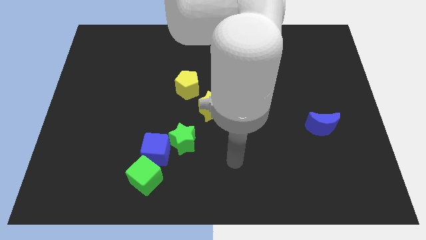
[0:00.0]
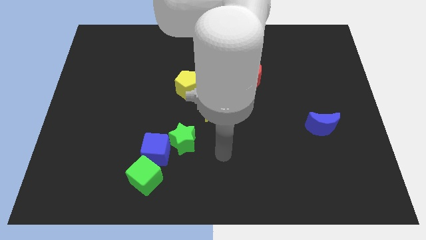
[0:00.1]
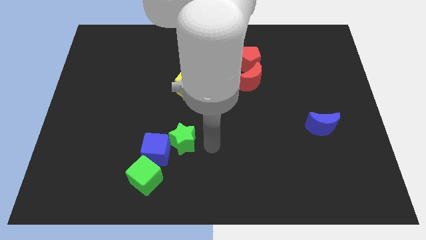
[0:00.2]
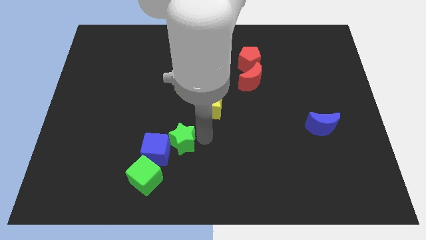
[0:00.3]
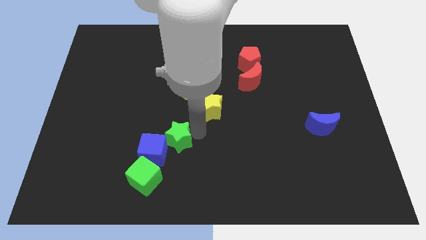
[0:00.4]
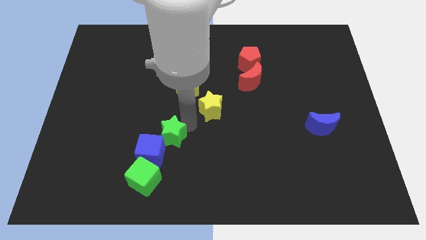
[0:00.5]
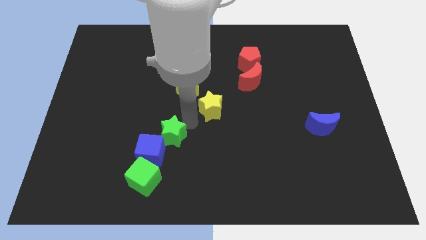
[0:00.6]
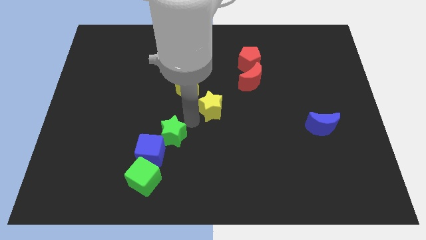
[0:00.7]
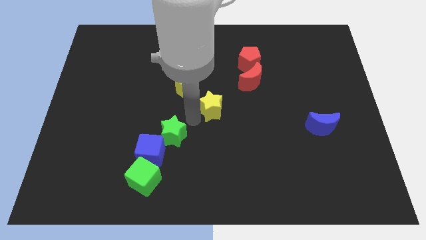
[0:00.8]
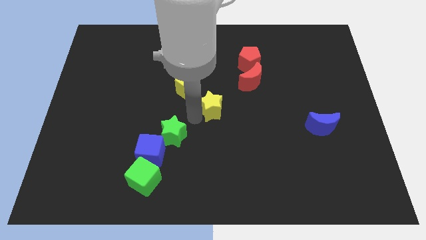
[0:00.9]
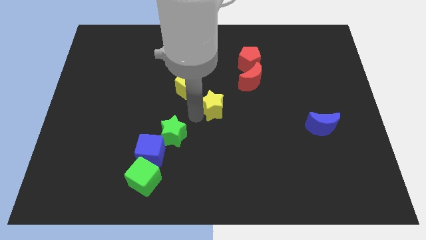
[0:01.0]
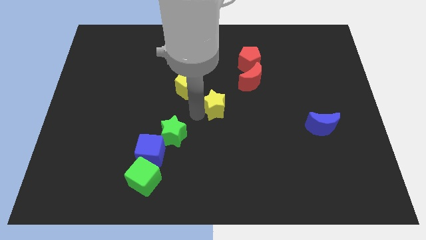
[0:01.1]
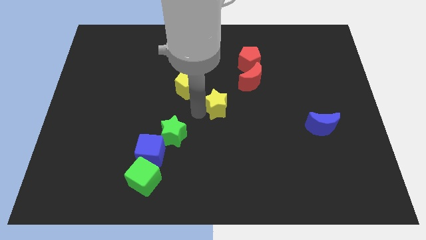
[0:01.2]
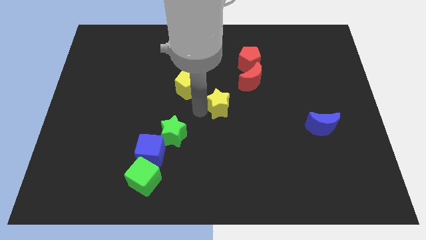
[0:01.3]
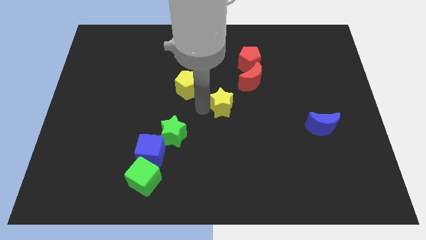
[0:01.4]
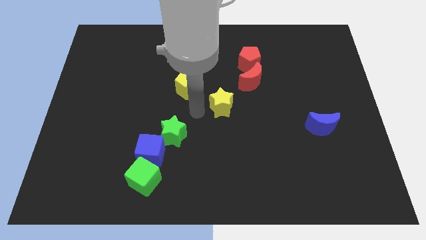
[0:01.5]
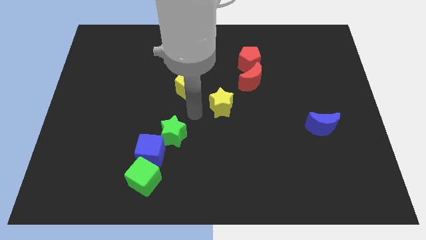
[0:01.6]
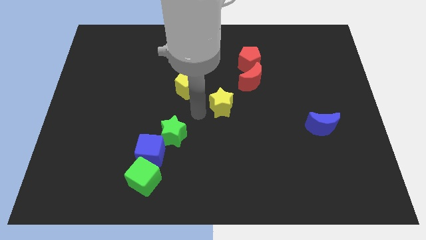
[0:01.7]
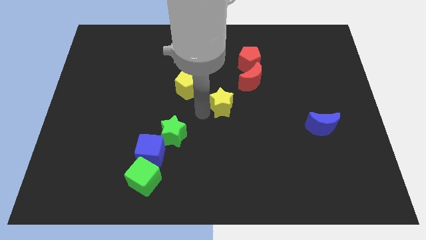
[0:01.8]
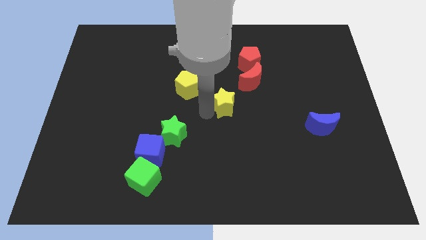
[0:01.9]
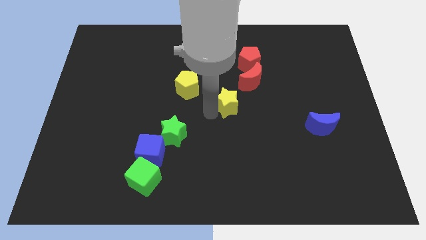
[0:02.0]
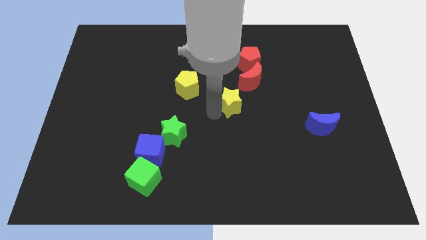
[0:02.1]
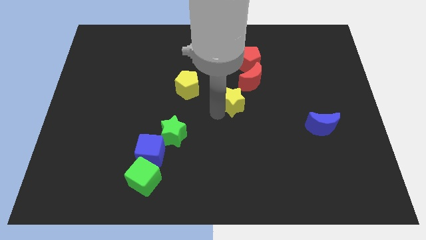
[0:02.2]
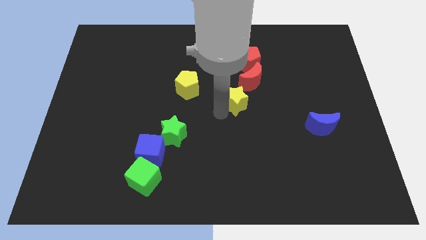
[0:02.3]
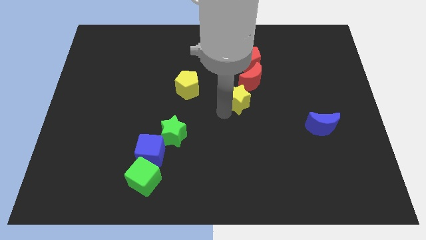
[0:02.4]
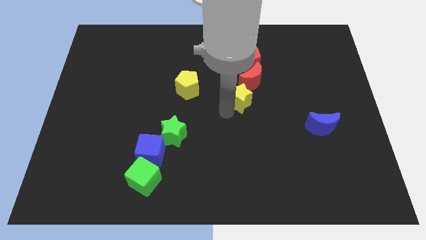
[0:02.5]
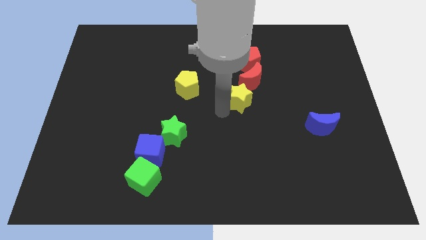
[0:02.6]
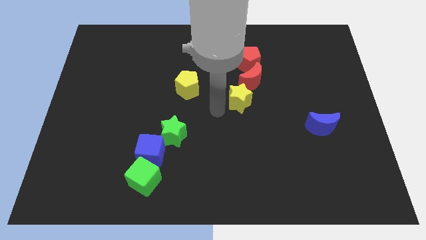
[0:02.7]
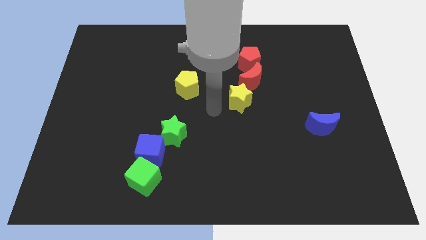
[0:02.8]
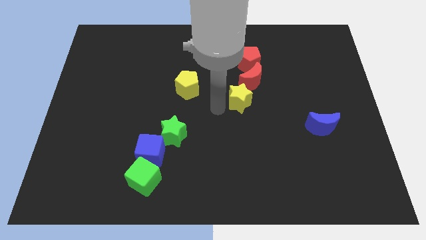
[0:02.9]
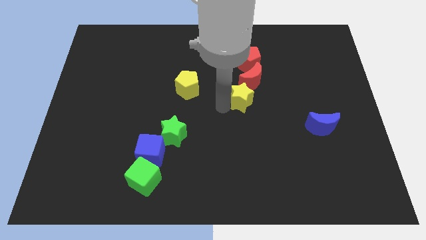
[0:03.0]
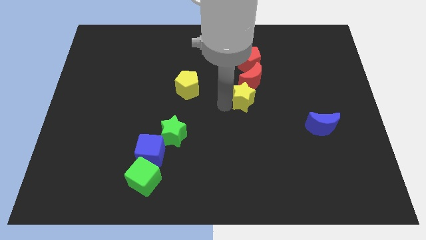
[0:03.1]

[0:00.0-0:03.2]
move the yellow star slightly diagonally upwards and right

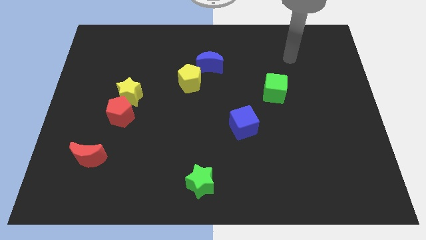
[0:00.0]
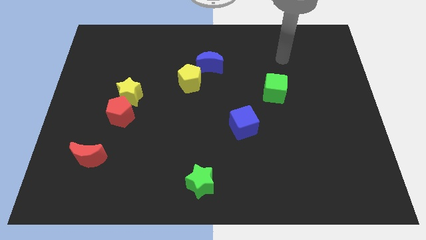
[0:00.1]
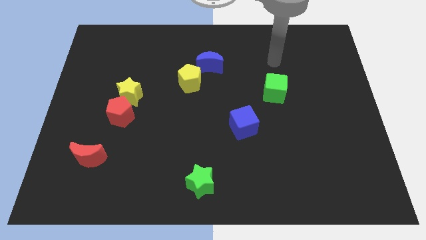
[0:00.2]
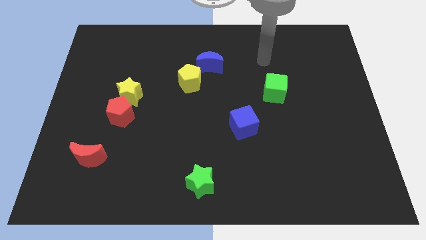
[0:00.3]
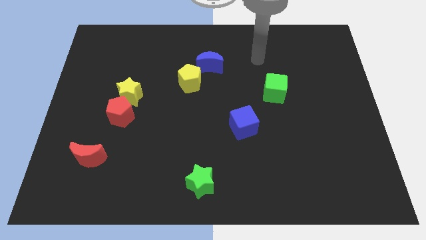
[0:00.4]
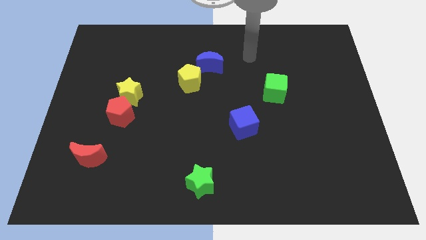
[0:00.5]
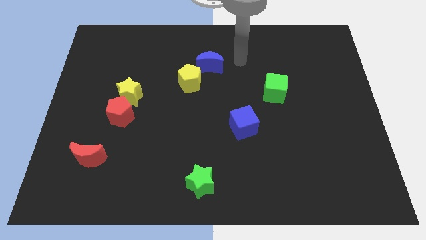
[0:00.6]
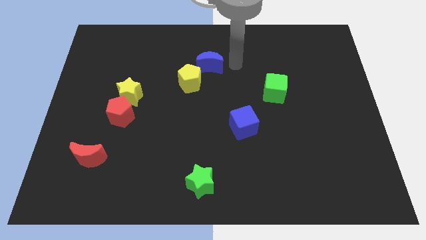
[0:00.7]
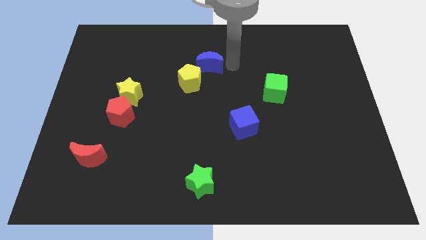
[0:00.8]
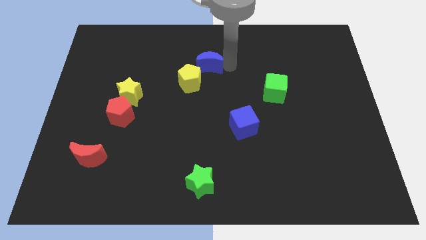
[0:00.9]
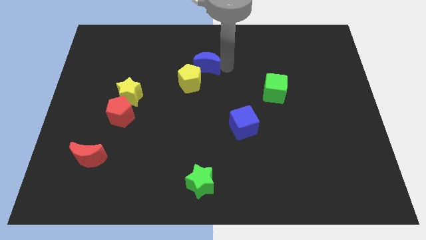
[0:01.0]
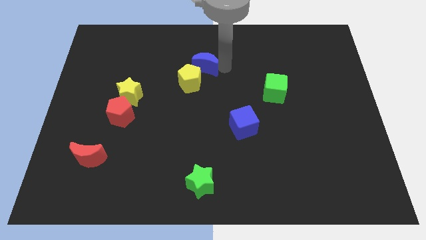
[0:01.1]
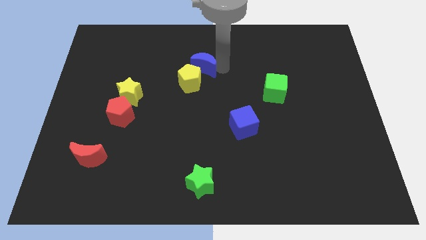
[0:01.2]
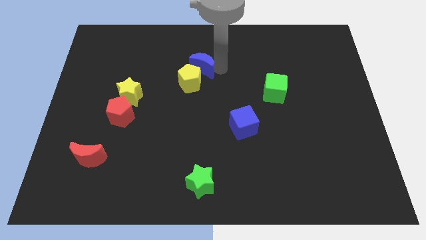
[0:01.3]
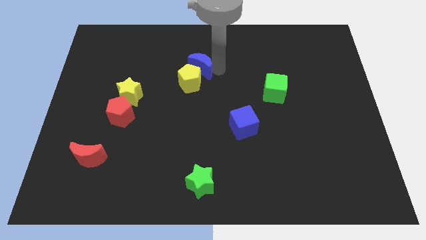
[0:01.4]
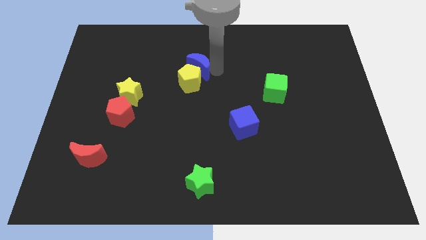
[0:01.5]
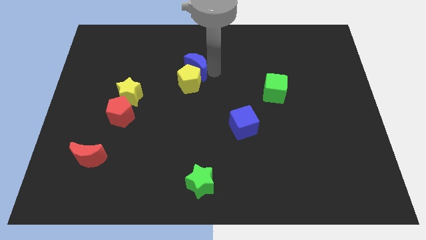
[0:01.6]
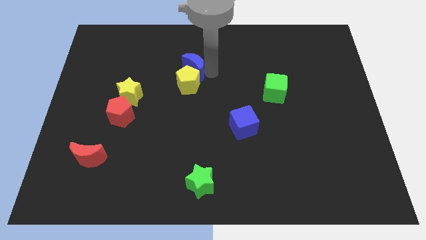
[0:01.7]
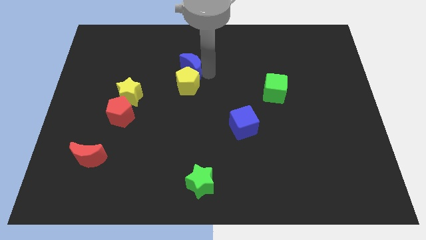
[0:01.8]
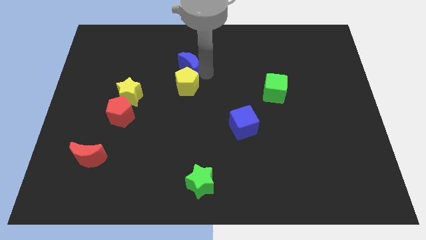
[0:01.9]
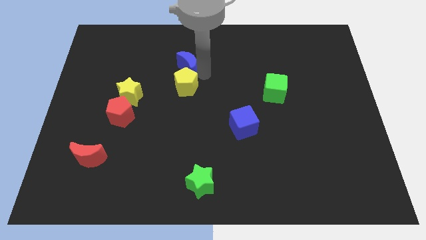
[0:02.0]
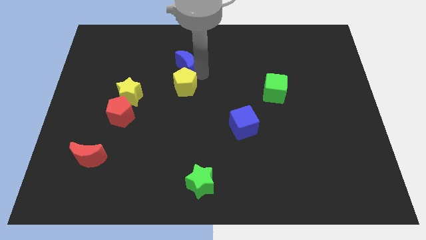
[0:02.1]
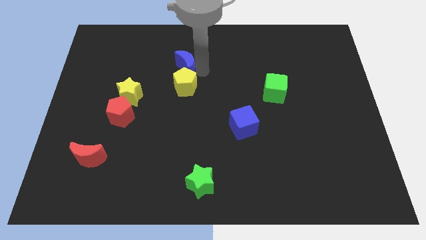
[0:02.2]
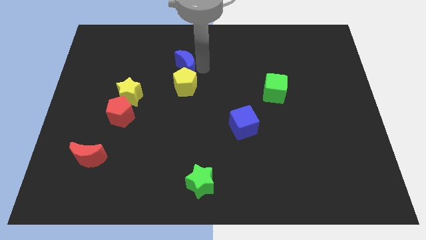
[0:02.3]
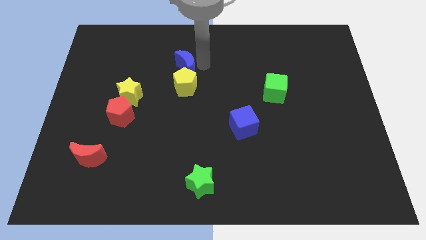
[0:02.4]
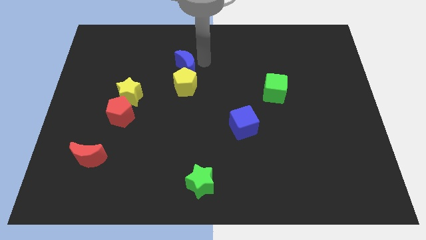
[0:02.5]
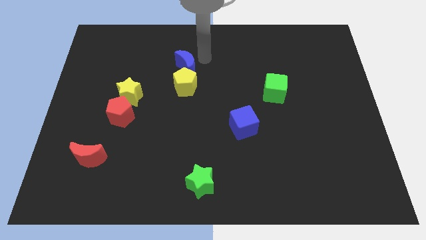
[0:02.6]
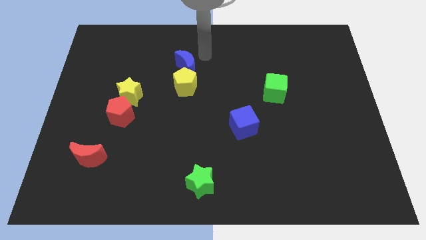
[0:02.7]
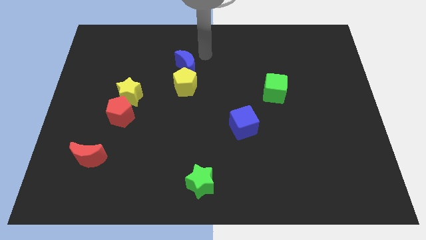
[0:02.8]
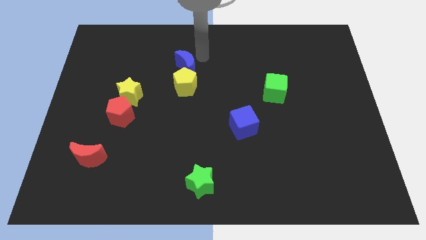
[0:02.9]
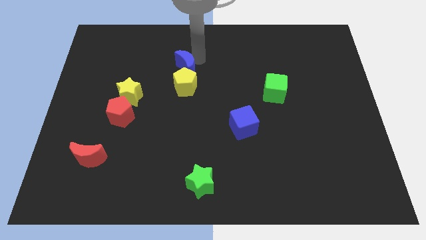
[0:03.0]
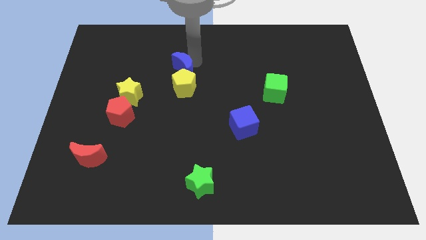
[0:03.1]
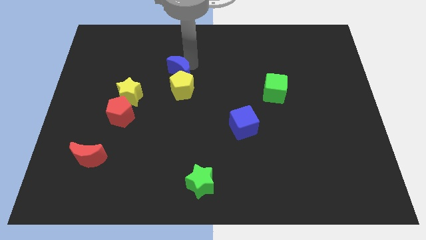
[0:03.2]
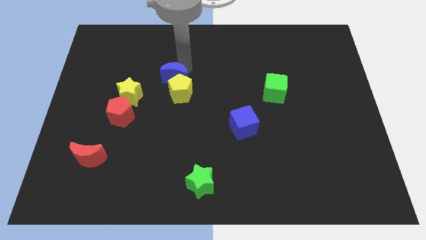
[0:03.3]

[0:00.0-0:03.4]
move the blue moon a little bit down and then left

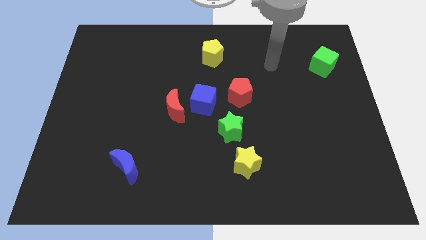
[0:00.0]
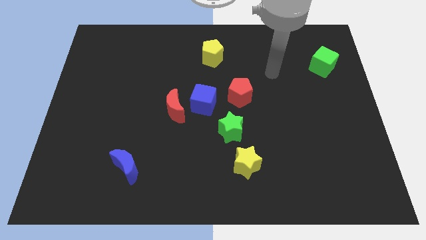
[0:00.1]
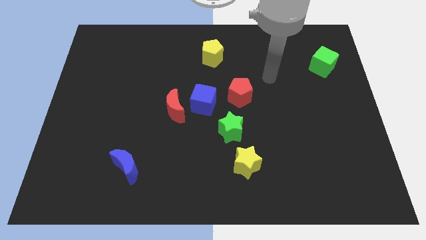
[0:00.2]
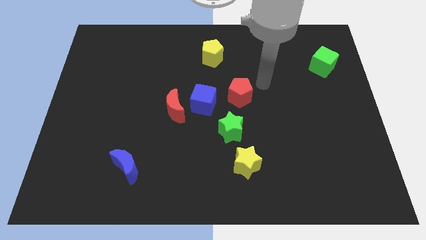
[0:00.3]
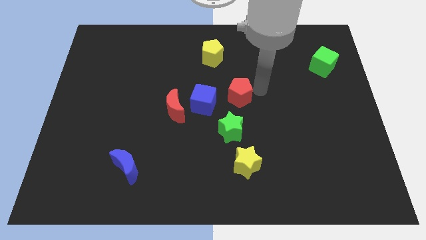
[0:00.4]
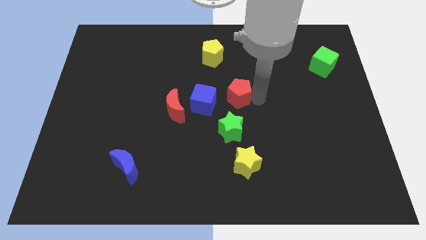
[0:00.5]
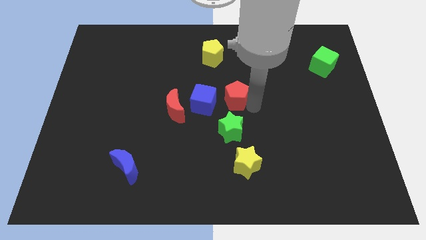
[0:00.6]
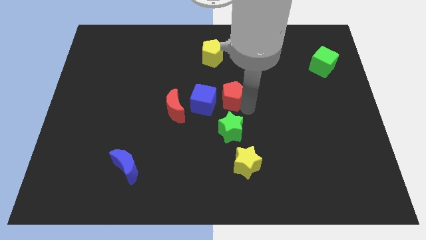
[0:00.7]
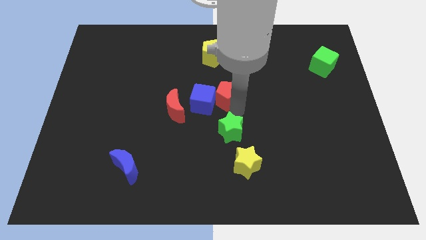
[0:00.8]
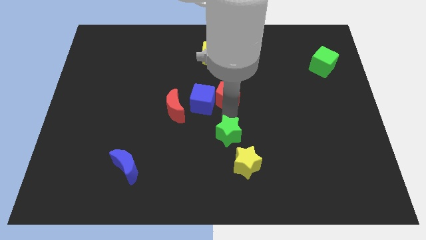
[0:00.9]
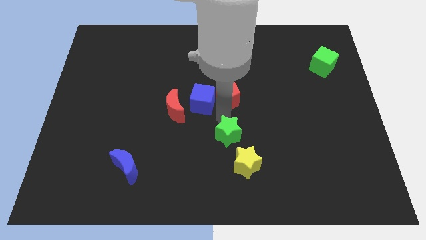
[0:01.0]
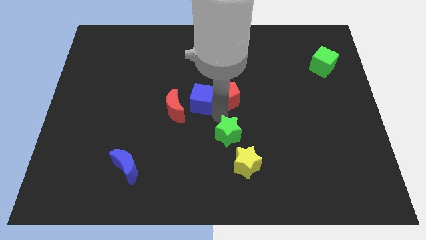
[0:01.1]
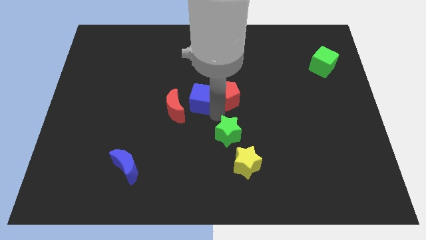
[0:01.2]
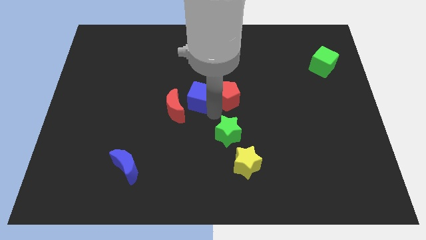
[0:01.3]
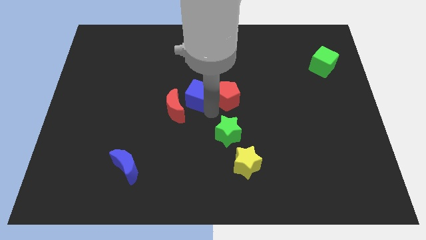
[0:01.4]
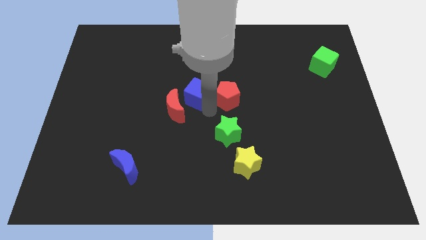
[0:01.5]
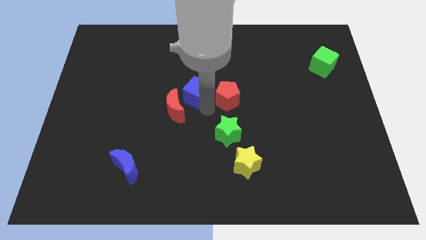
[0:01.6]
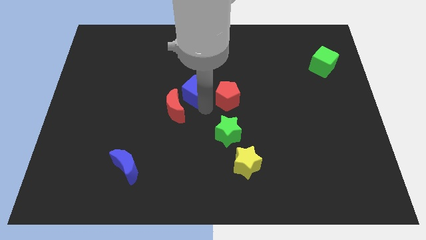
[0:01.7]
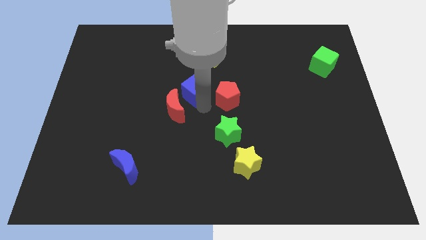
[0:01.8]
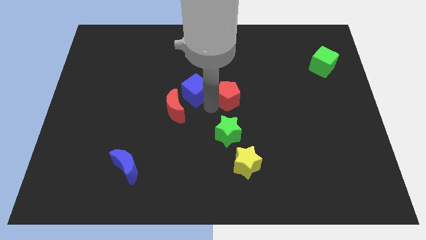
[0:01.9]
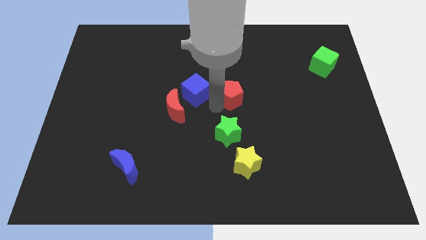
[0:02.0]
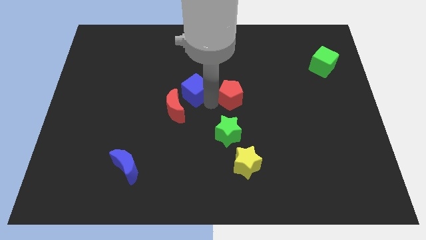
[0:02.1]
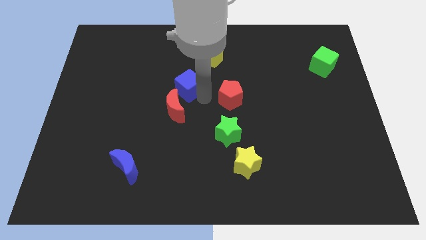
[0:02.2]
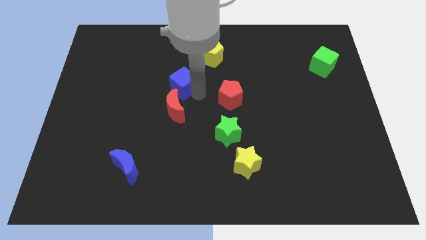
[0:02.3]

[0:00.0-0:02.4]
push the blue cube a little diagonally up and to the left
